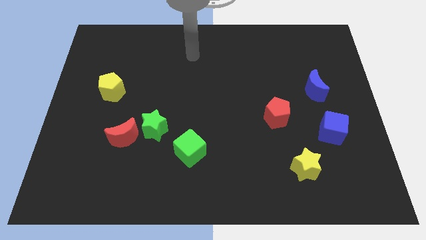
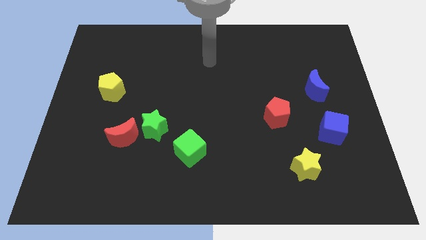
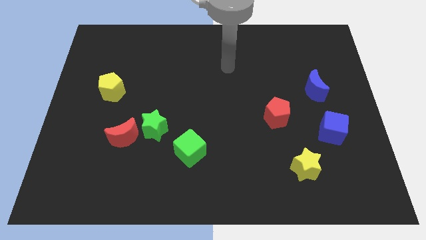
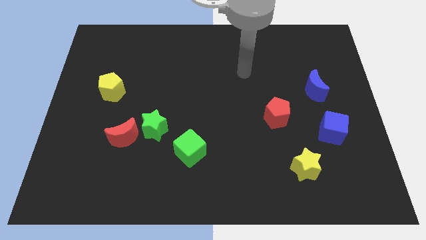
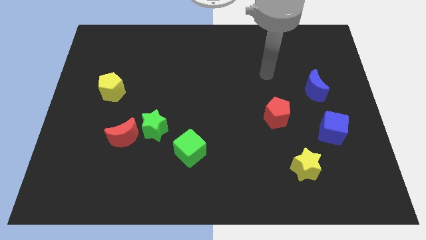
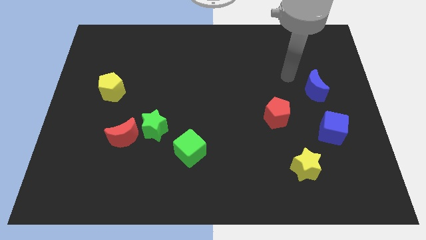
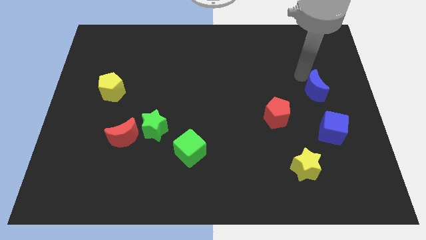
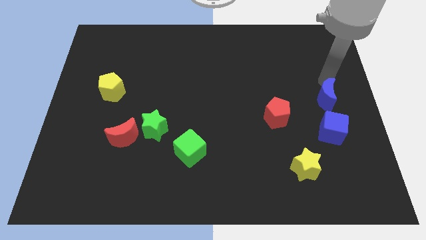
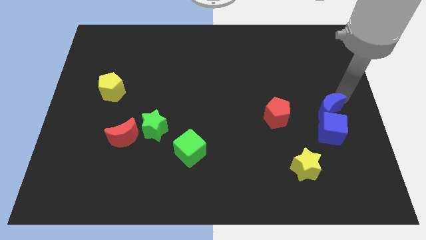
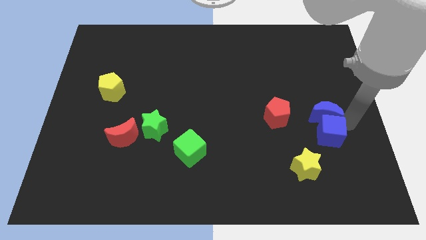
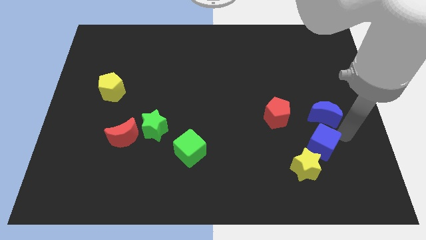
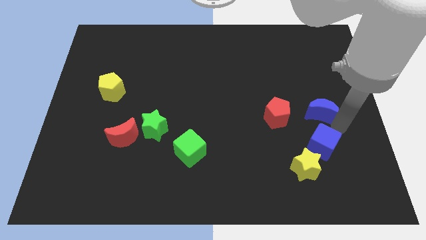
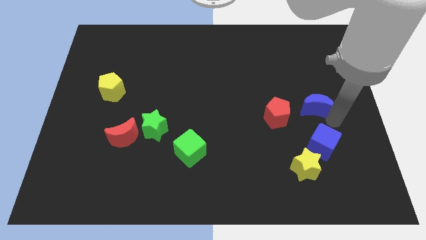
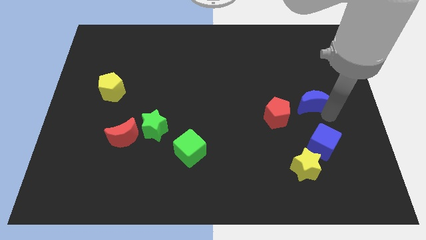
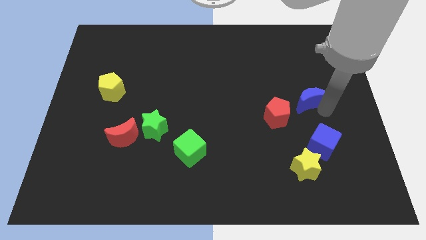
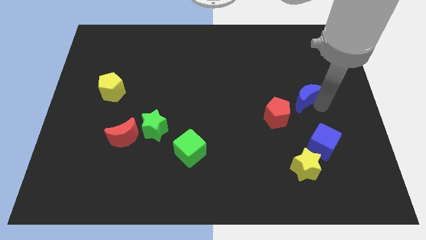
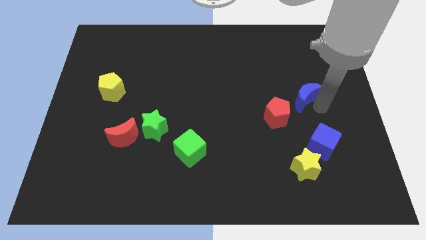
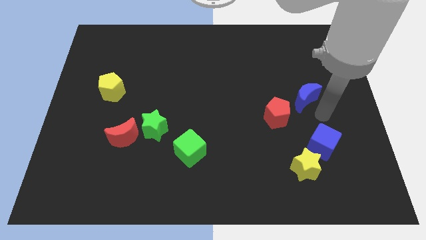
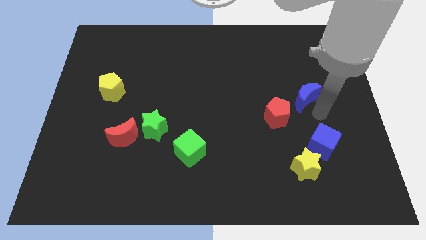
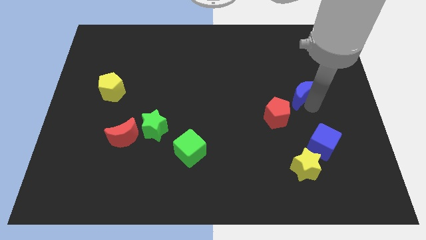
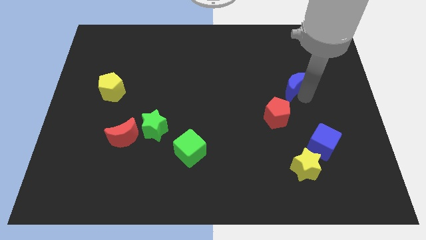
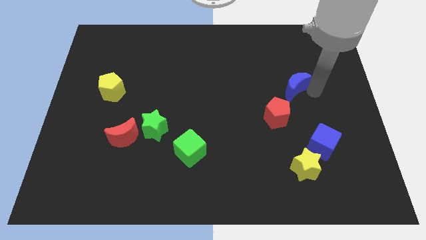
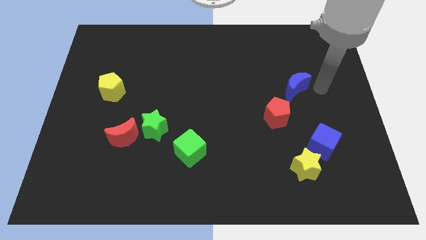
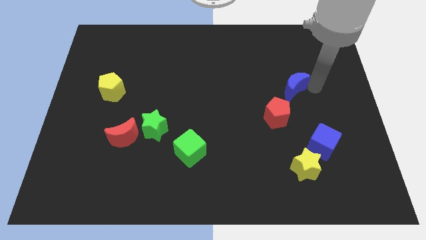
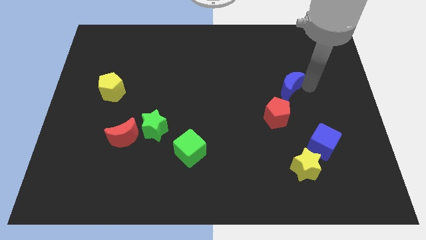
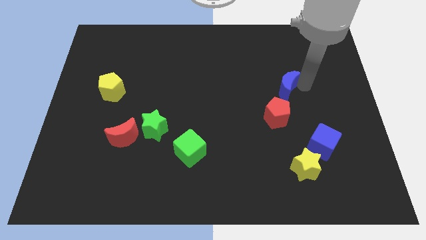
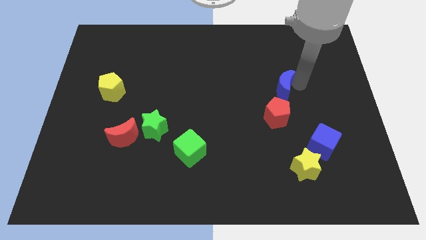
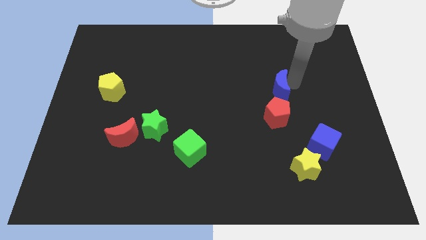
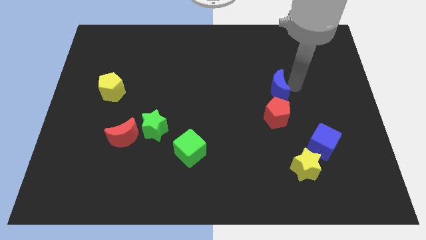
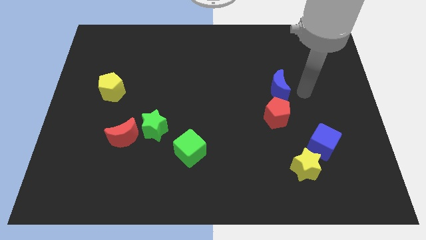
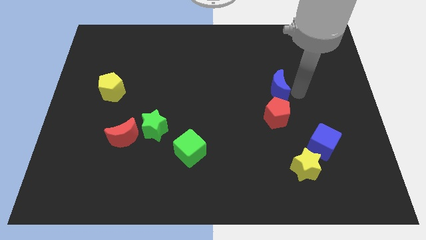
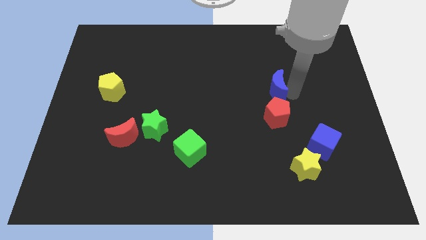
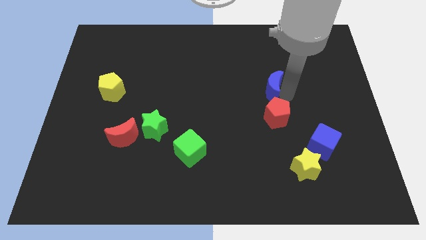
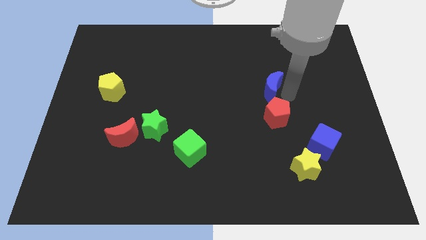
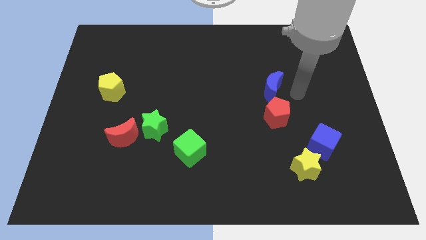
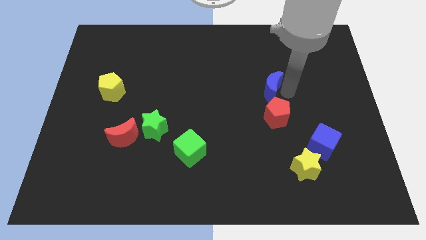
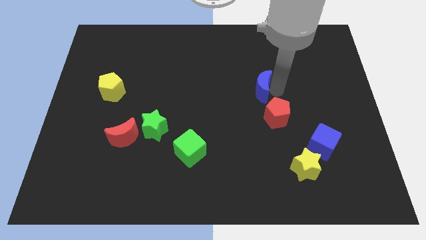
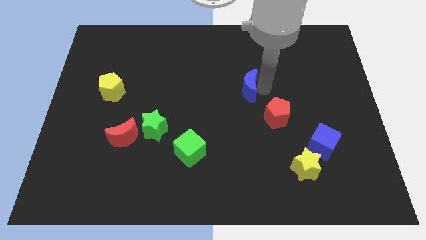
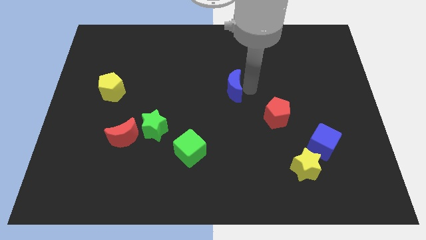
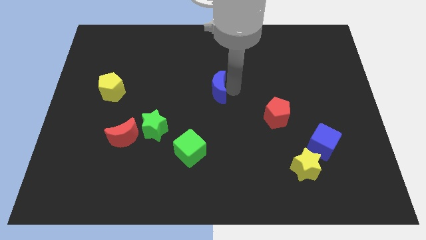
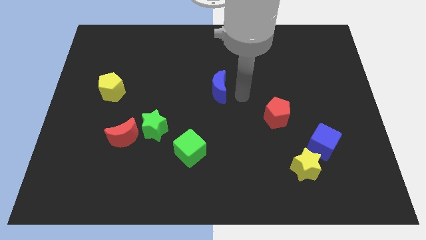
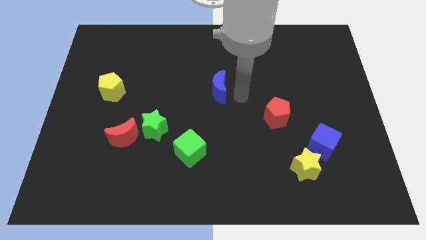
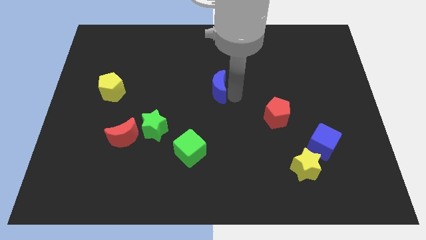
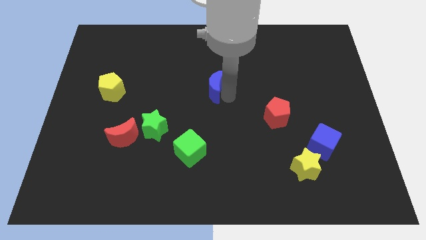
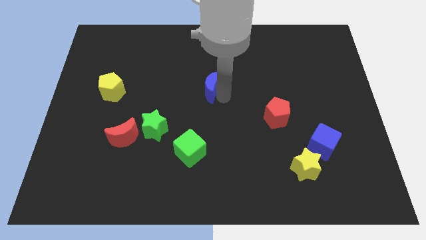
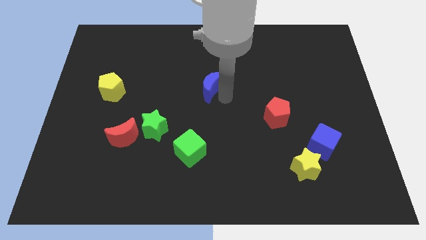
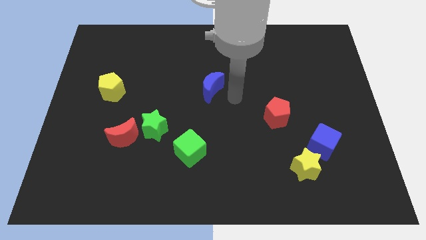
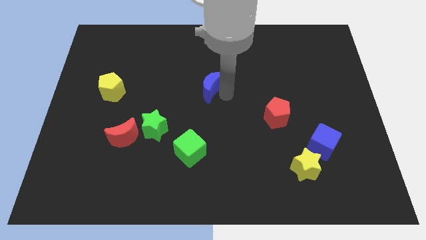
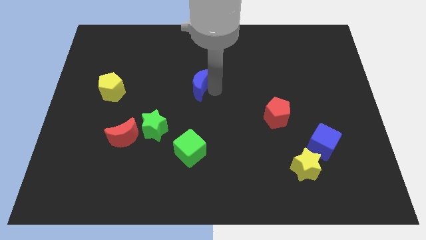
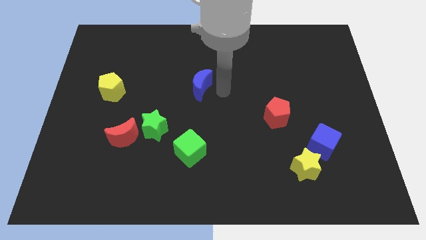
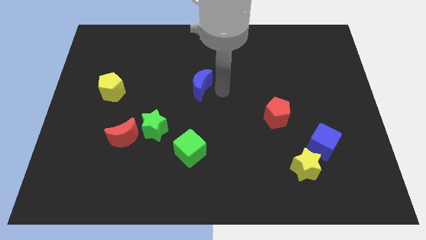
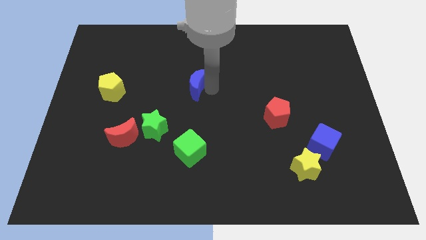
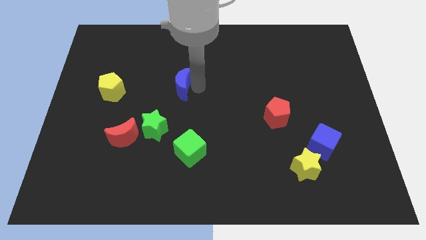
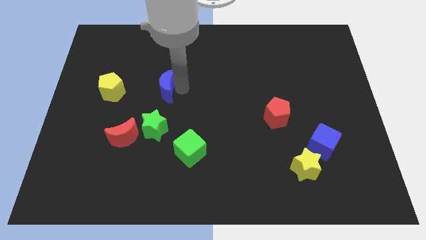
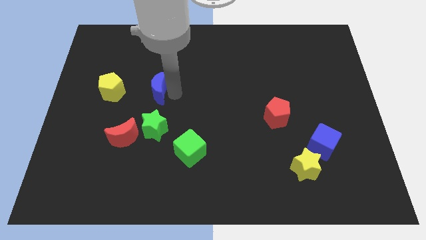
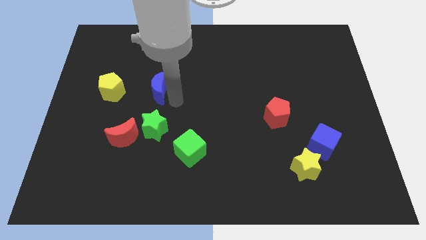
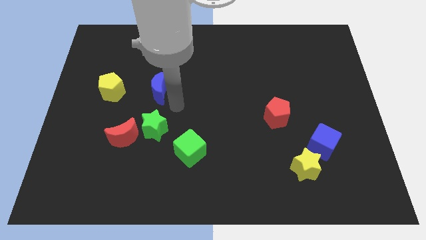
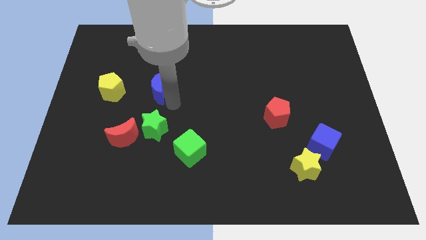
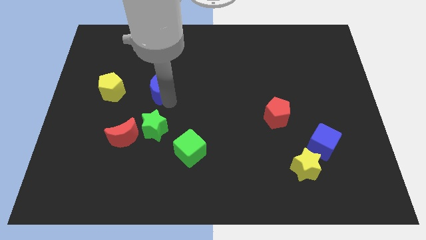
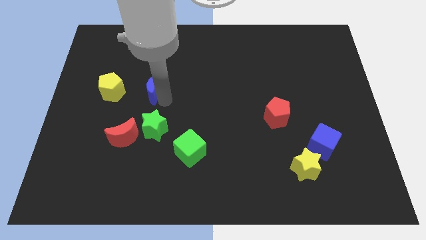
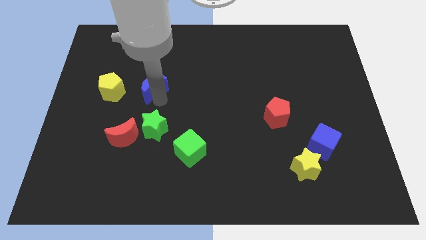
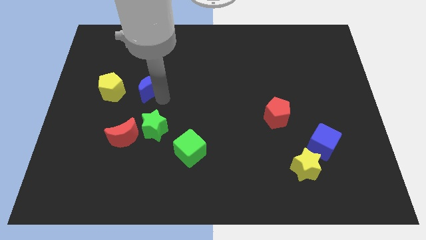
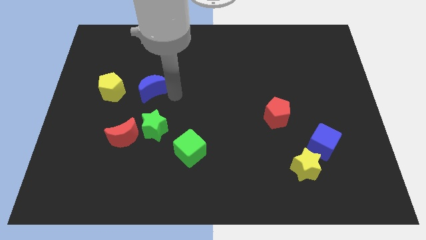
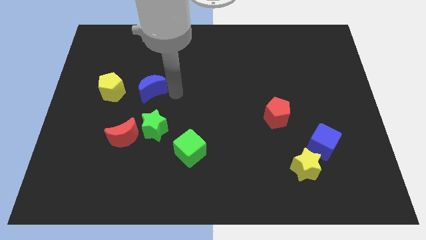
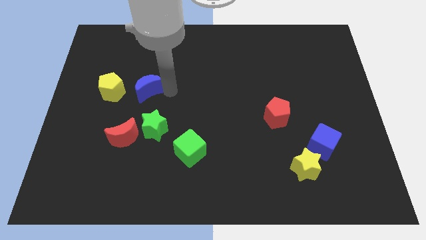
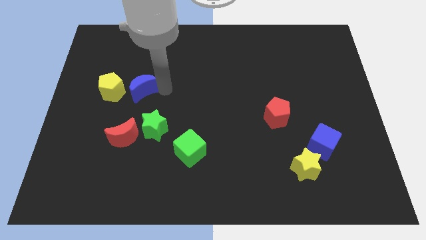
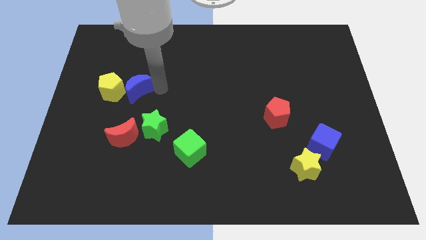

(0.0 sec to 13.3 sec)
put the blue moon close to the yellow pentagon

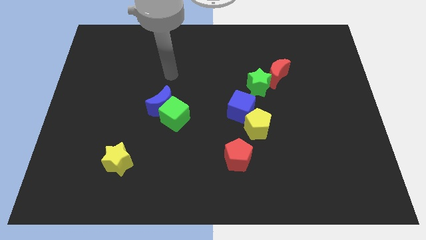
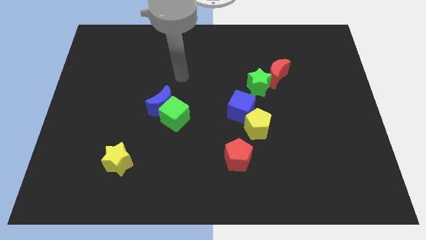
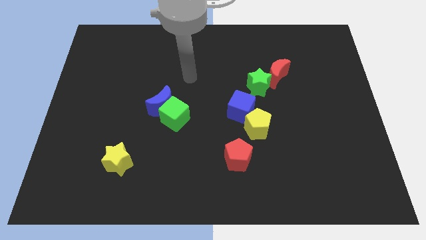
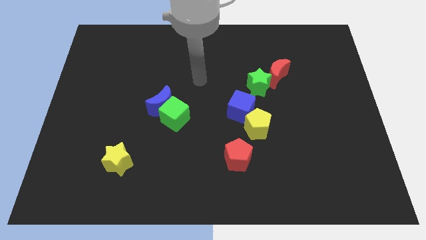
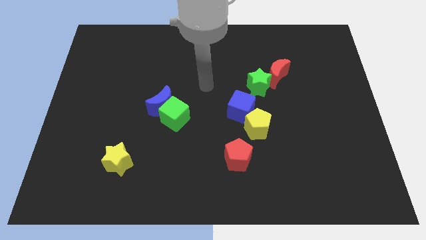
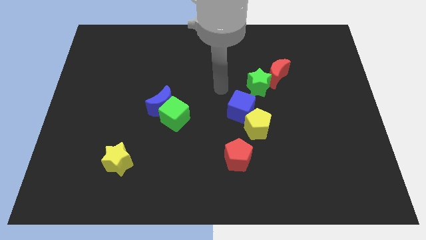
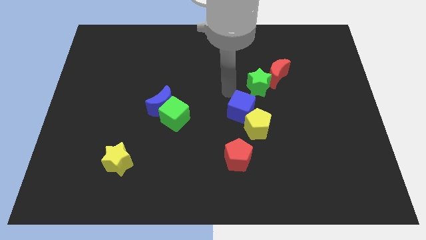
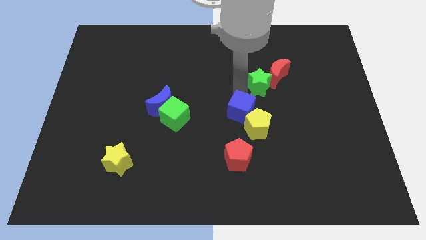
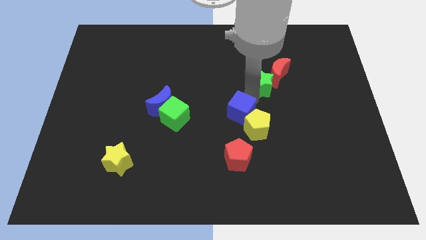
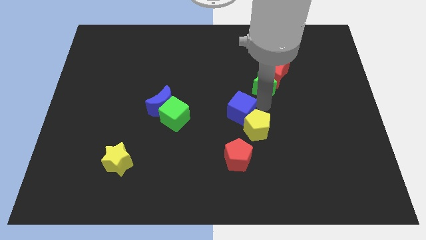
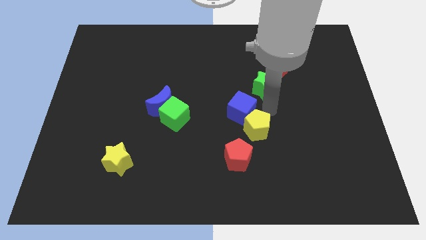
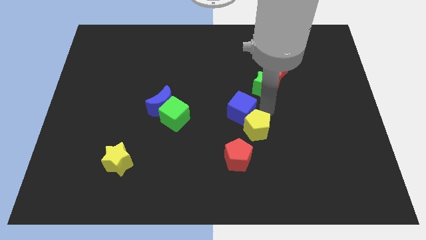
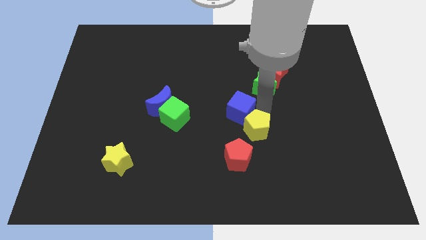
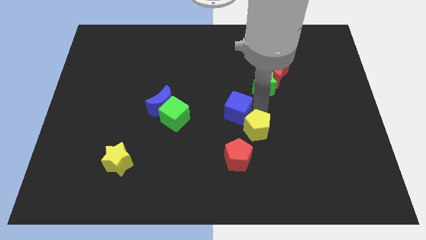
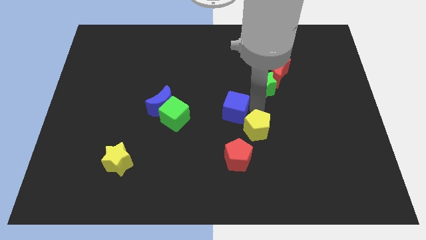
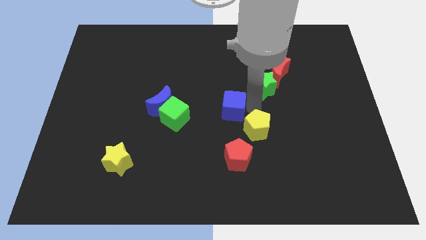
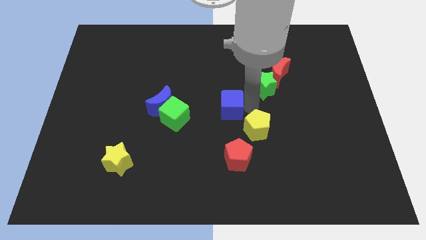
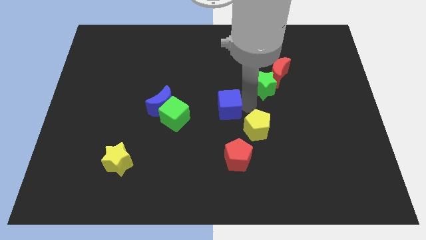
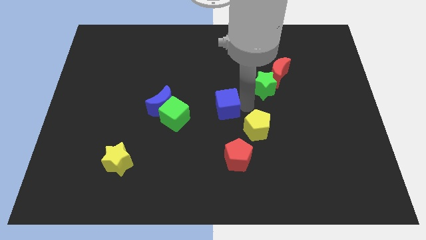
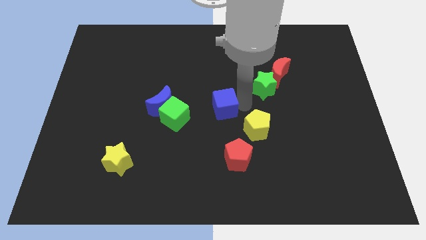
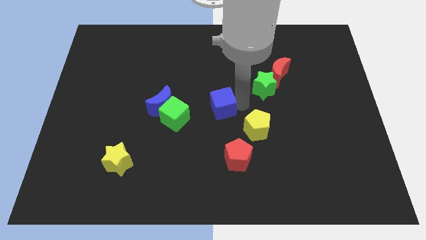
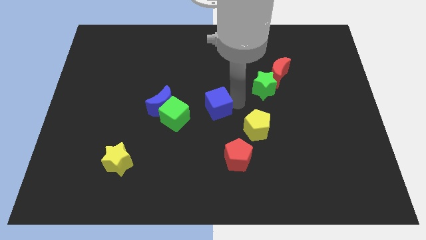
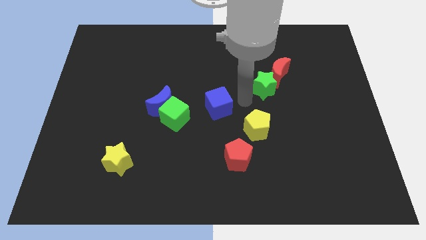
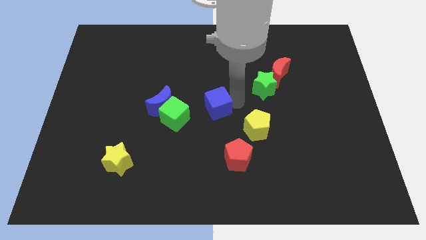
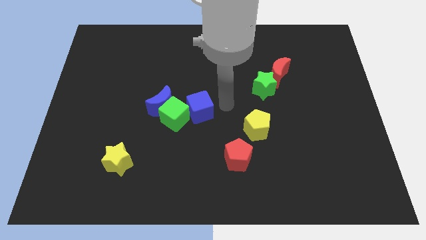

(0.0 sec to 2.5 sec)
put the blue cube to the green cube
